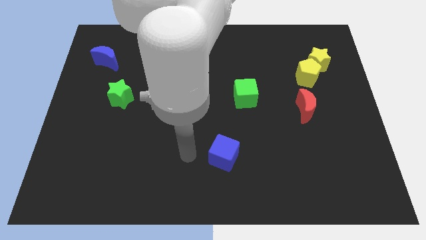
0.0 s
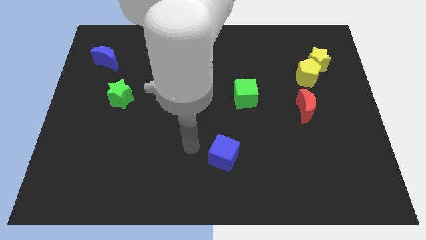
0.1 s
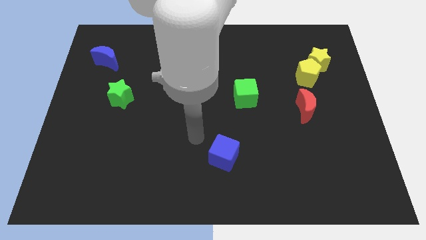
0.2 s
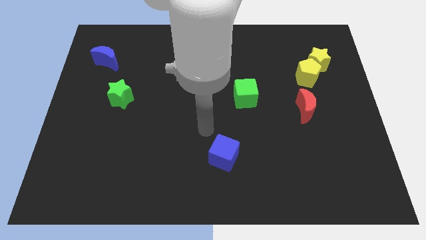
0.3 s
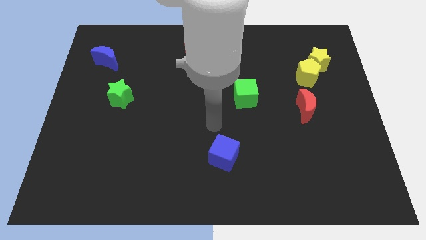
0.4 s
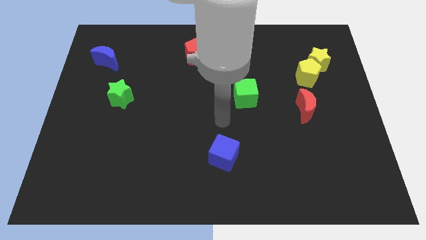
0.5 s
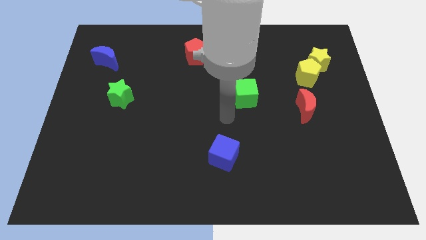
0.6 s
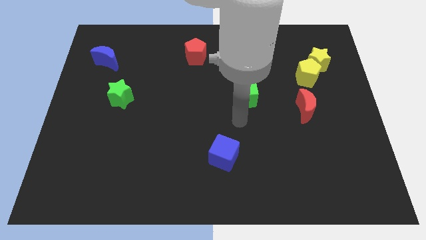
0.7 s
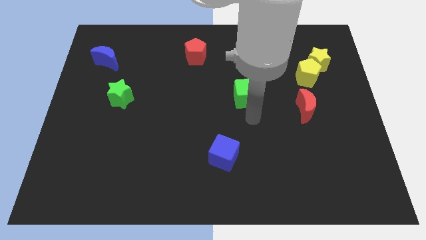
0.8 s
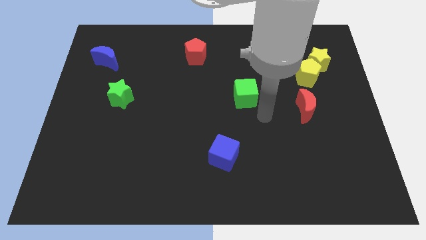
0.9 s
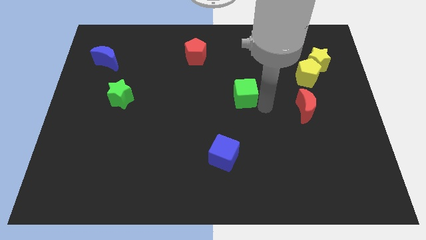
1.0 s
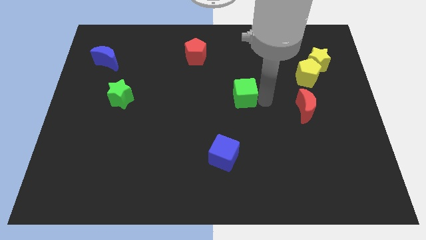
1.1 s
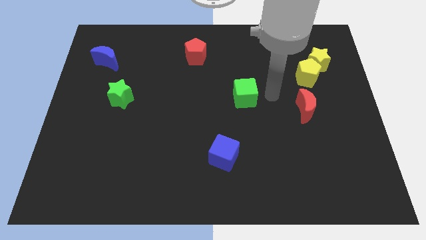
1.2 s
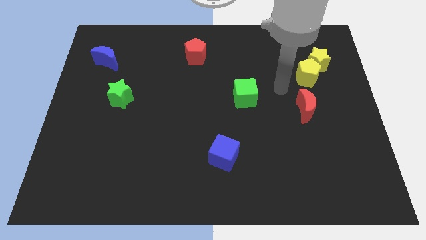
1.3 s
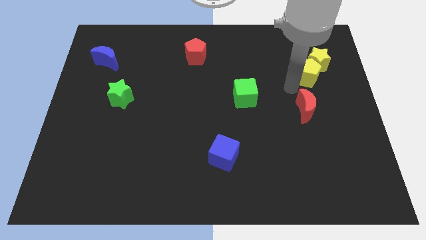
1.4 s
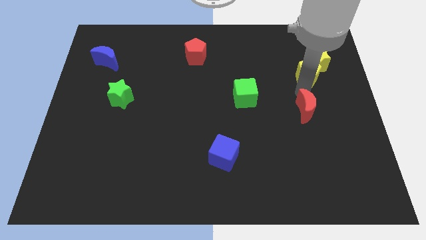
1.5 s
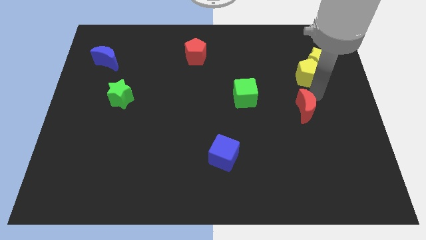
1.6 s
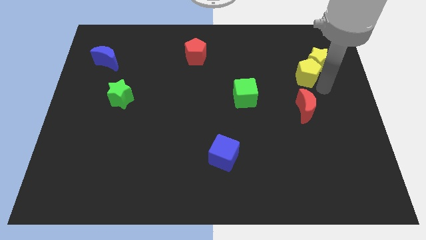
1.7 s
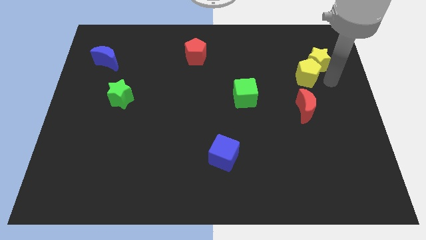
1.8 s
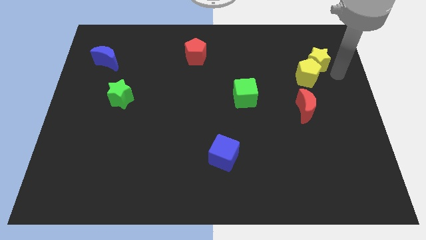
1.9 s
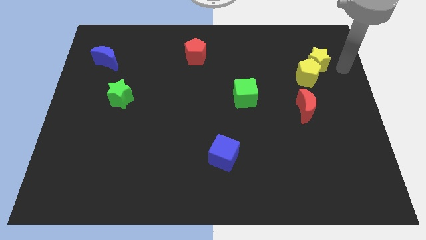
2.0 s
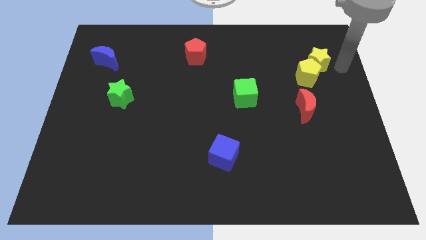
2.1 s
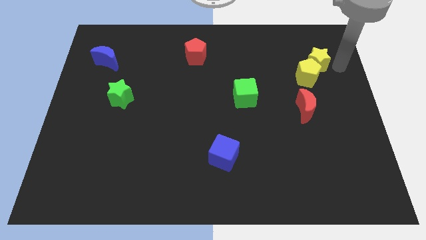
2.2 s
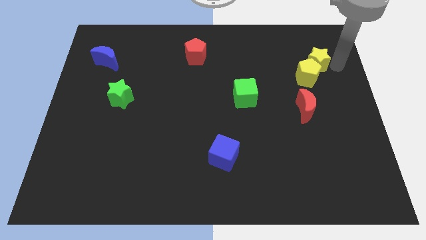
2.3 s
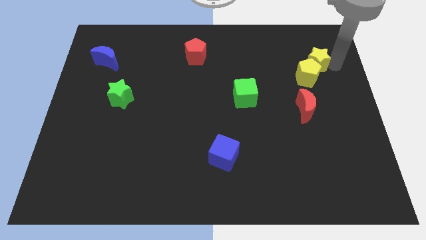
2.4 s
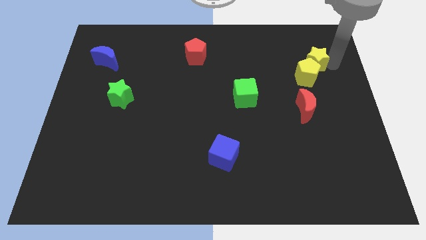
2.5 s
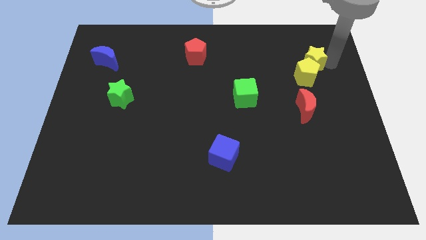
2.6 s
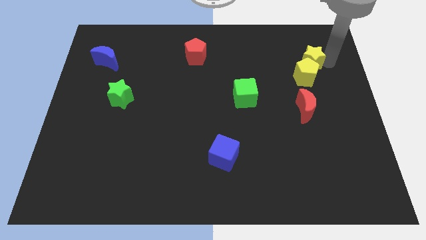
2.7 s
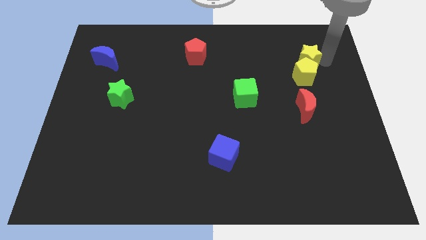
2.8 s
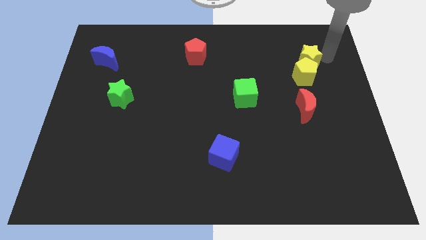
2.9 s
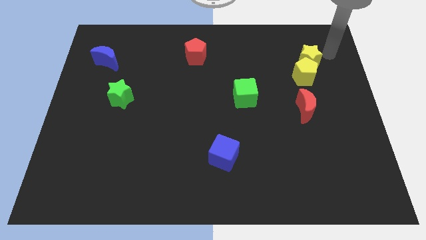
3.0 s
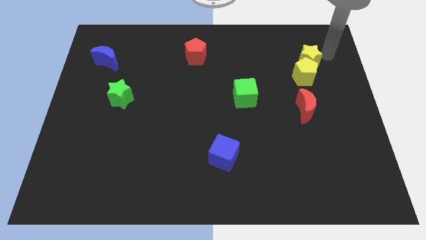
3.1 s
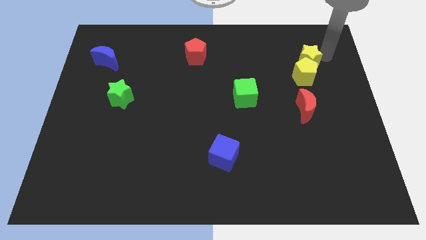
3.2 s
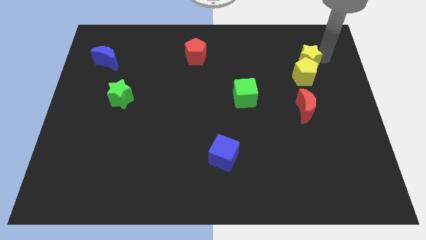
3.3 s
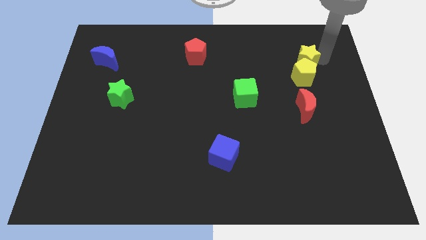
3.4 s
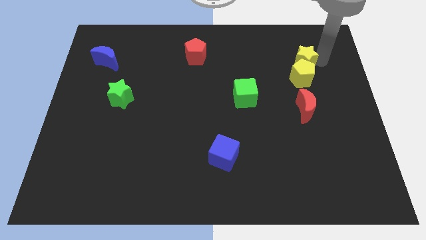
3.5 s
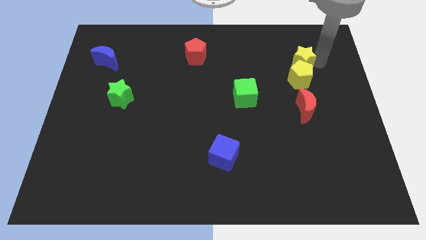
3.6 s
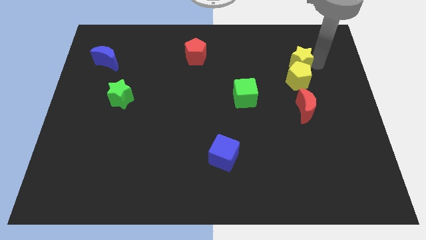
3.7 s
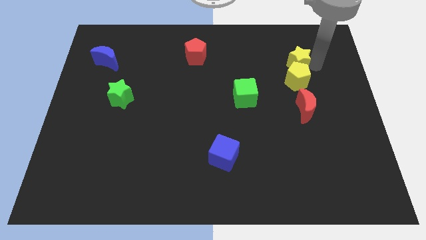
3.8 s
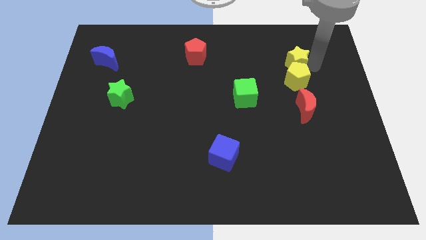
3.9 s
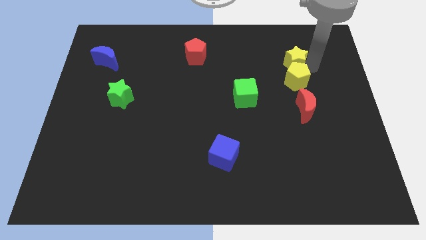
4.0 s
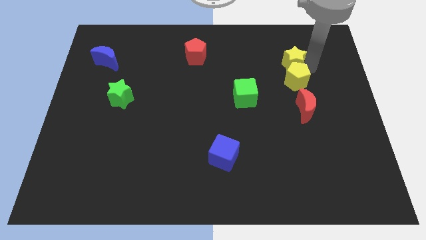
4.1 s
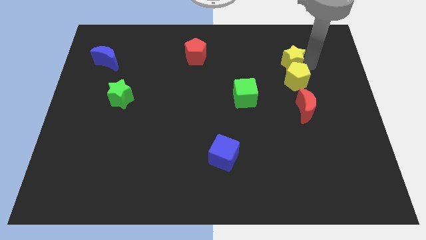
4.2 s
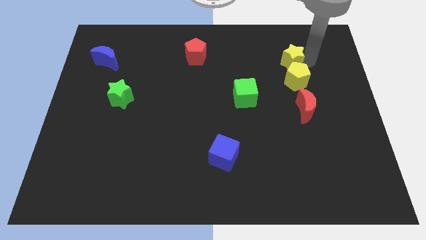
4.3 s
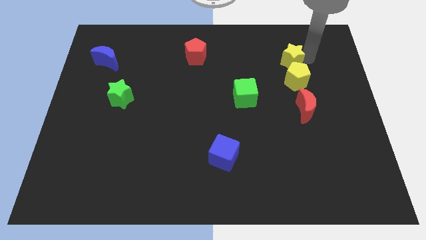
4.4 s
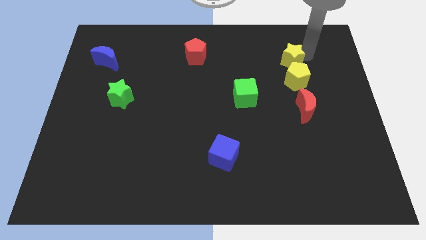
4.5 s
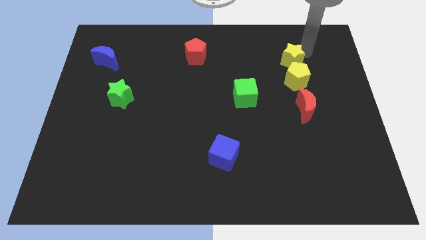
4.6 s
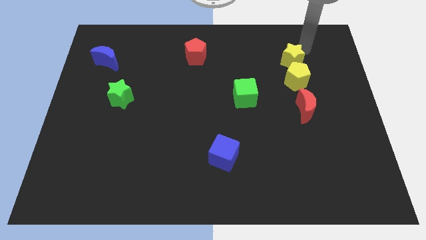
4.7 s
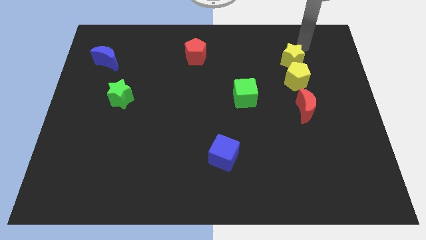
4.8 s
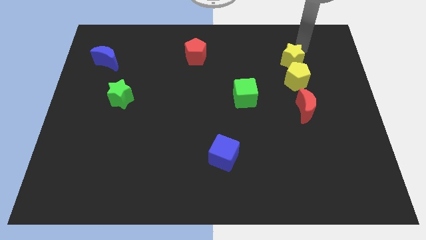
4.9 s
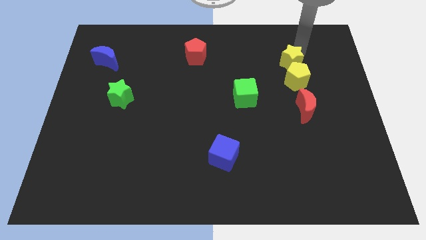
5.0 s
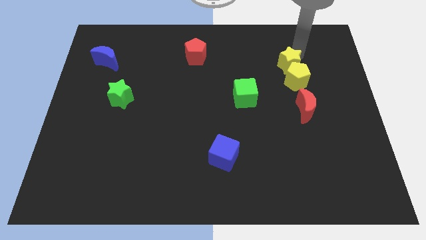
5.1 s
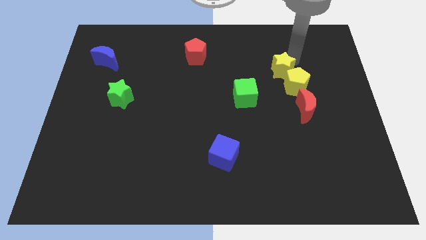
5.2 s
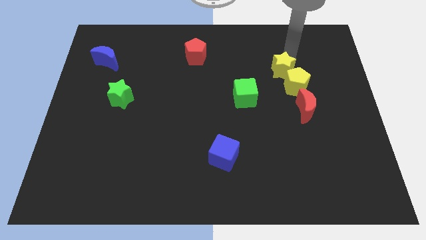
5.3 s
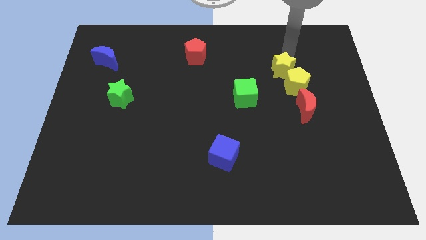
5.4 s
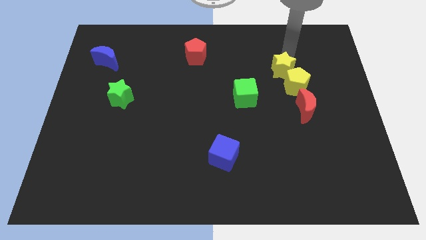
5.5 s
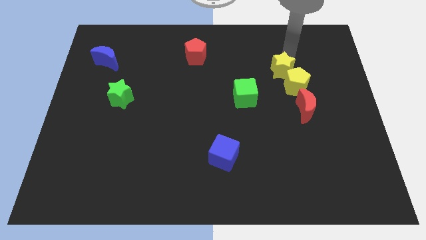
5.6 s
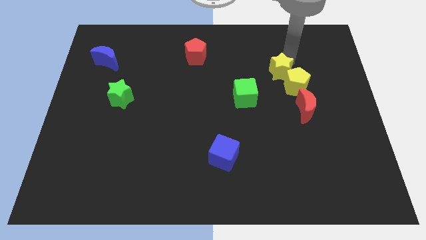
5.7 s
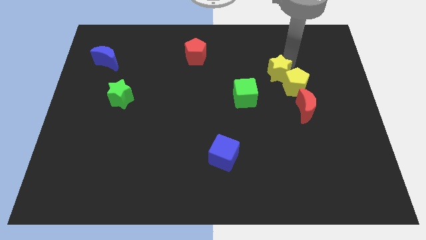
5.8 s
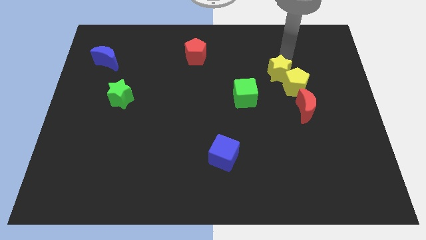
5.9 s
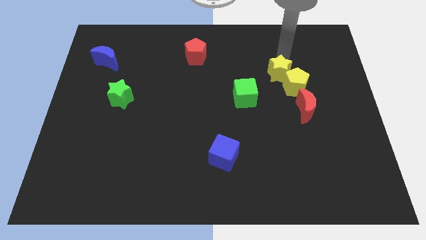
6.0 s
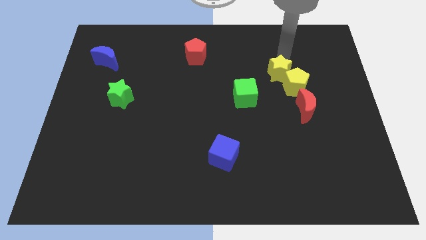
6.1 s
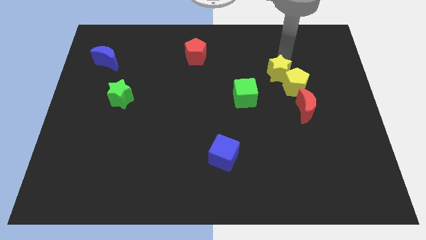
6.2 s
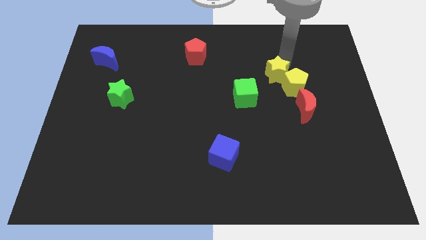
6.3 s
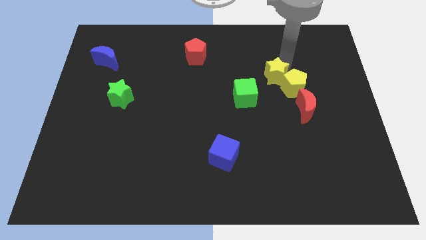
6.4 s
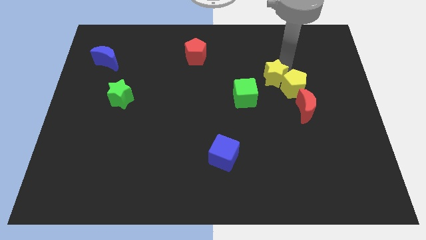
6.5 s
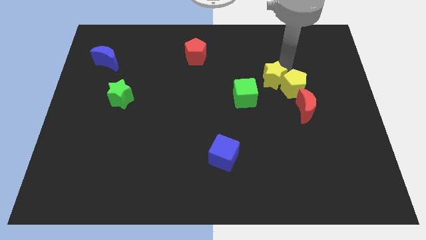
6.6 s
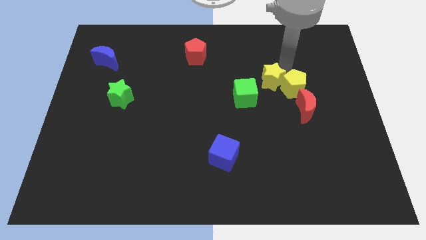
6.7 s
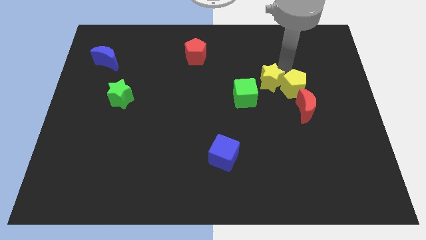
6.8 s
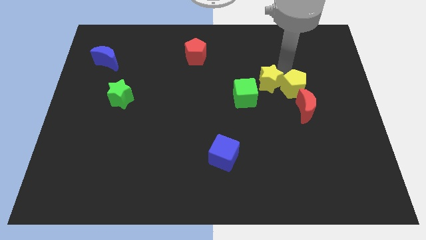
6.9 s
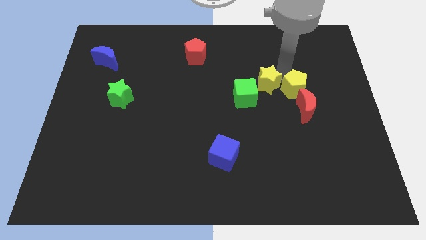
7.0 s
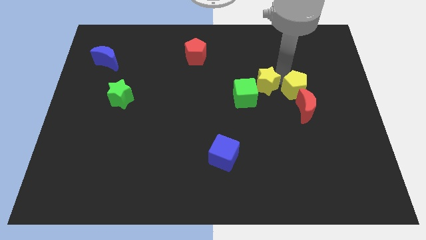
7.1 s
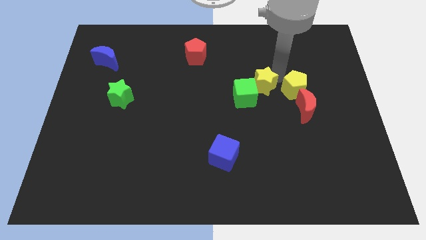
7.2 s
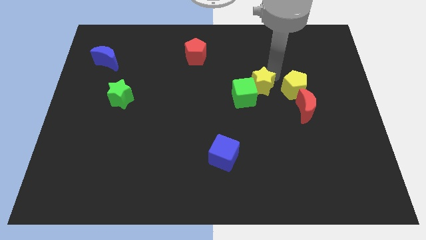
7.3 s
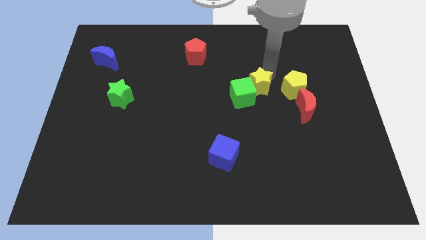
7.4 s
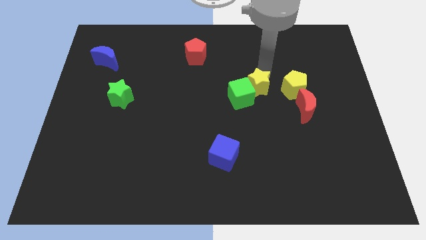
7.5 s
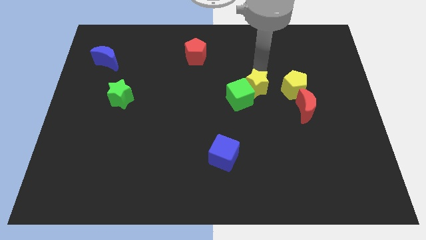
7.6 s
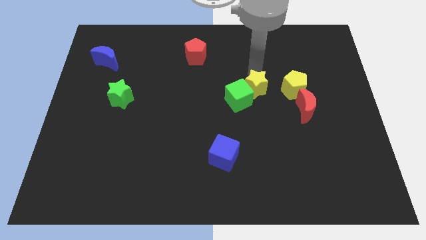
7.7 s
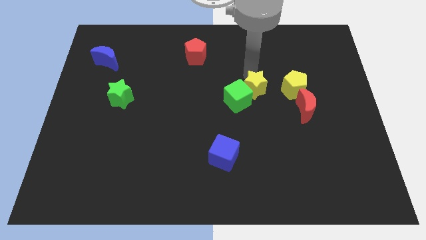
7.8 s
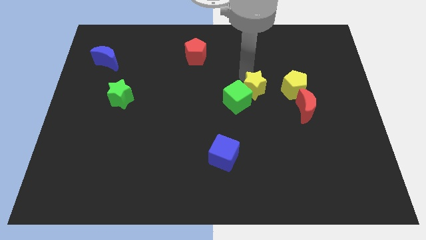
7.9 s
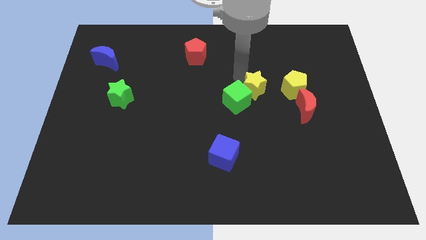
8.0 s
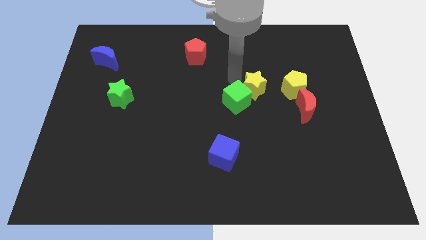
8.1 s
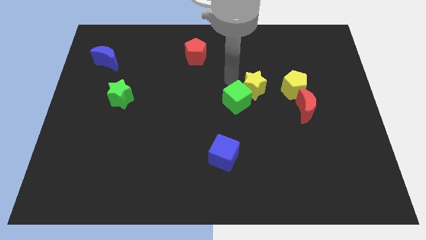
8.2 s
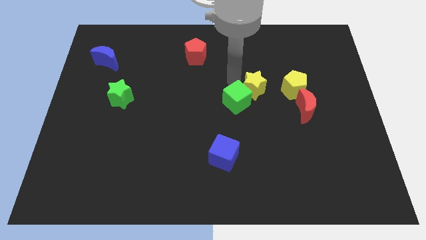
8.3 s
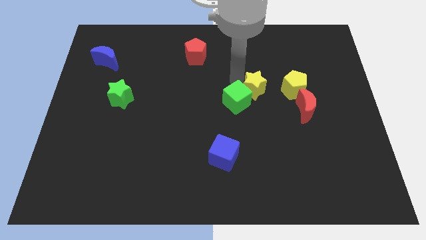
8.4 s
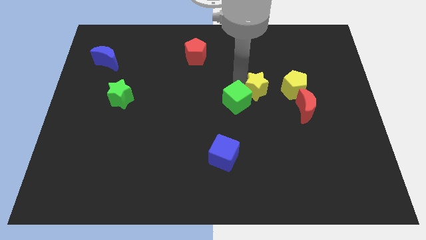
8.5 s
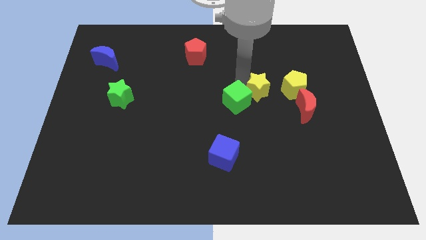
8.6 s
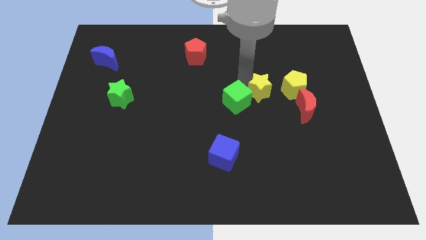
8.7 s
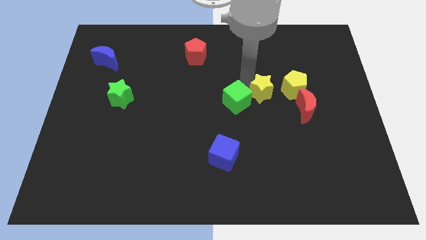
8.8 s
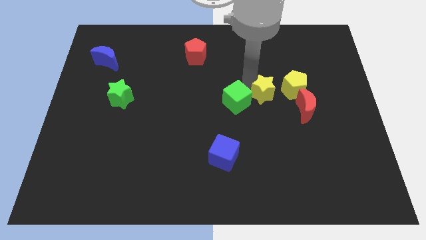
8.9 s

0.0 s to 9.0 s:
slide the yellow star left of the red moon
